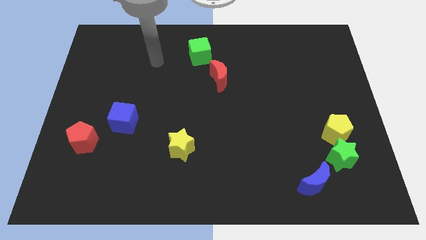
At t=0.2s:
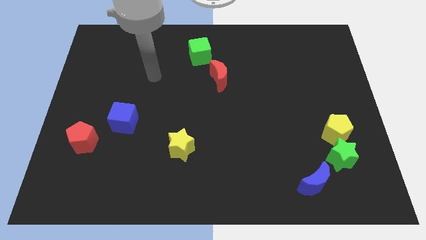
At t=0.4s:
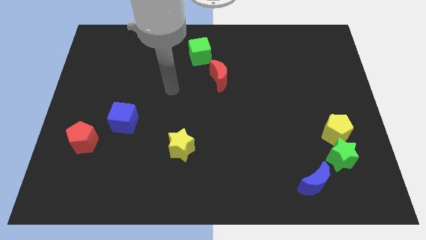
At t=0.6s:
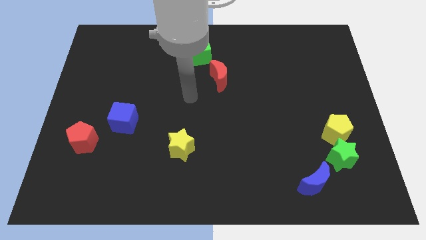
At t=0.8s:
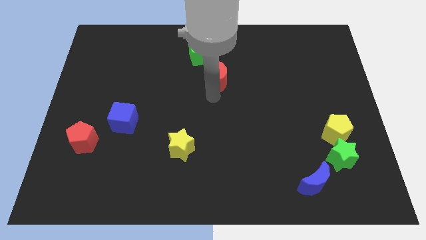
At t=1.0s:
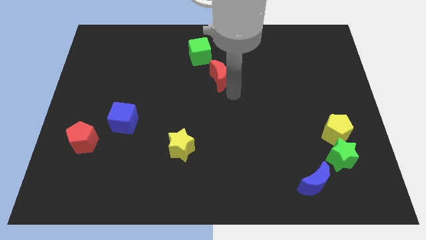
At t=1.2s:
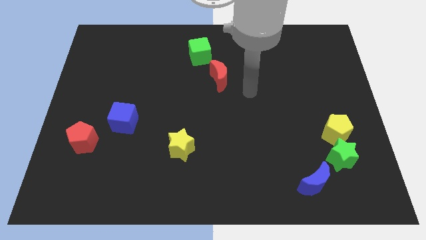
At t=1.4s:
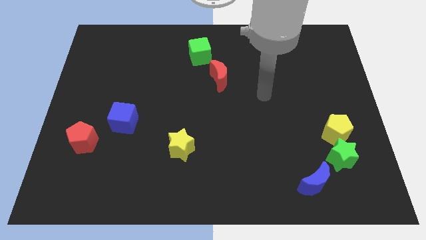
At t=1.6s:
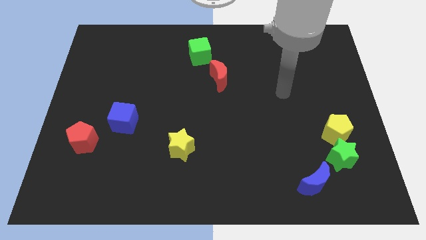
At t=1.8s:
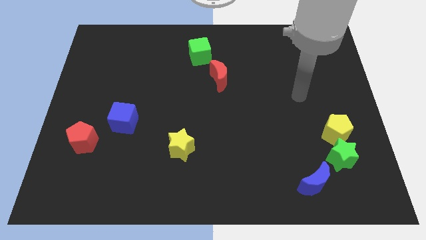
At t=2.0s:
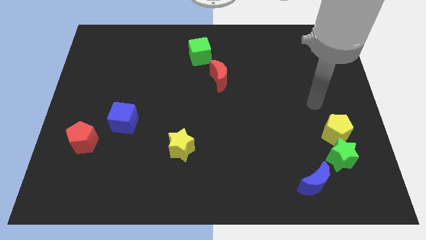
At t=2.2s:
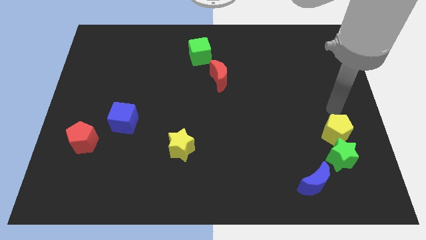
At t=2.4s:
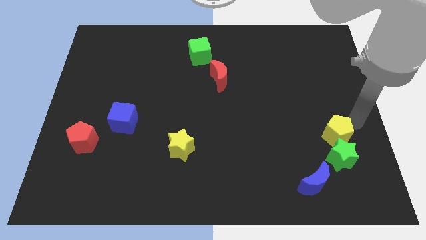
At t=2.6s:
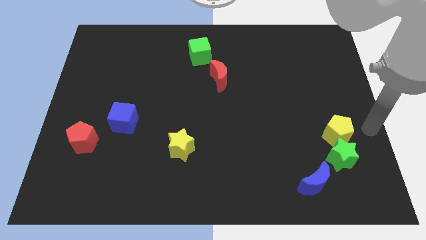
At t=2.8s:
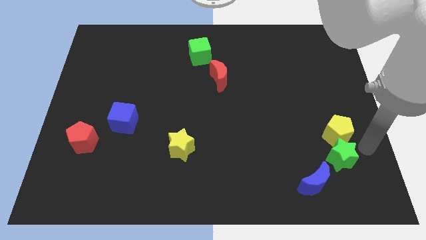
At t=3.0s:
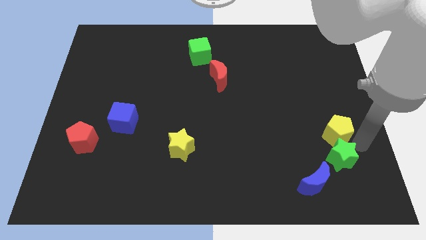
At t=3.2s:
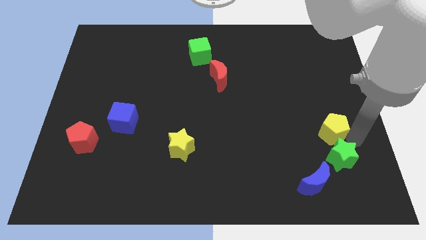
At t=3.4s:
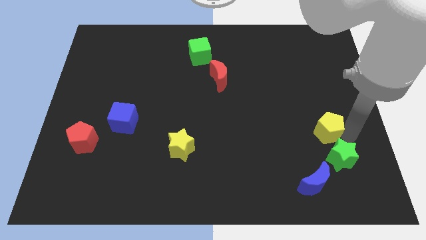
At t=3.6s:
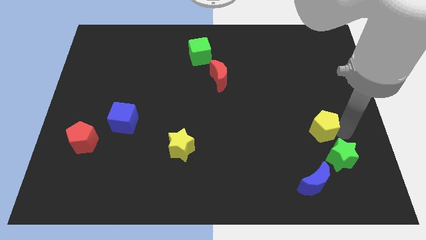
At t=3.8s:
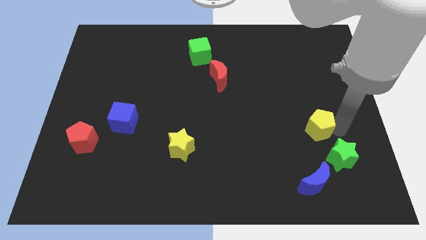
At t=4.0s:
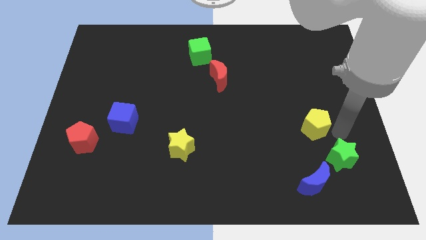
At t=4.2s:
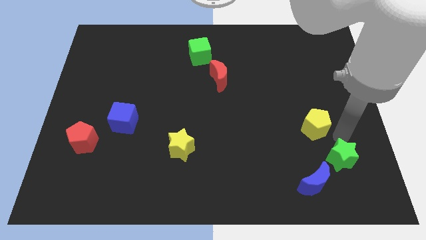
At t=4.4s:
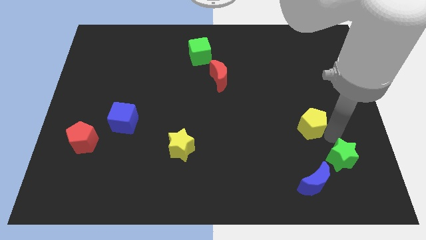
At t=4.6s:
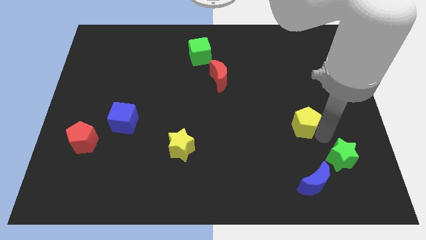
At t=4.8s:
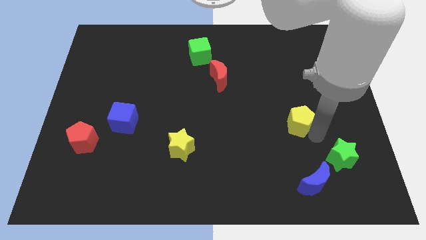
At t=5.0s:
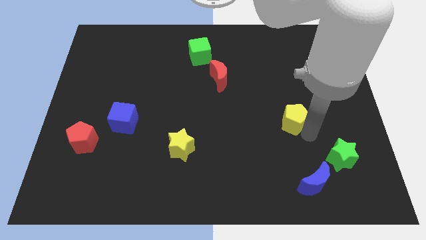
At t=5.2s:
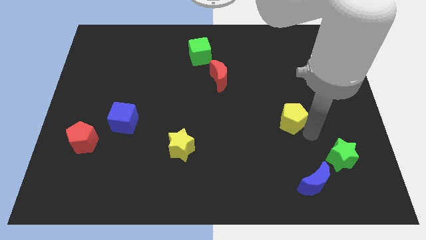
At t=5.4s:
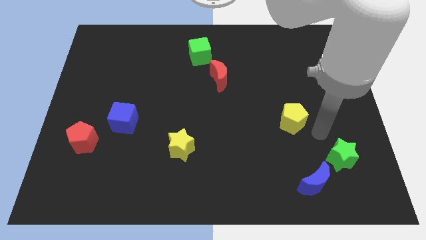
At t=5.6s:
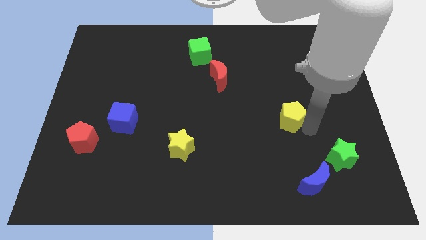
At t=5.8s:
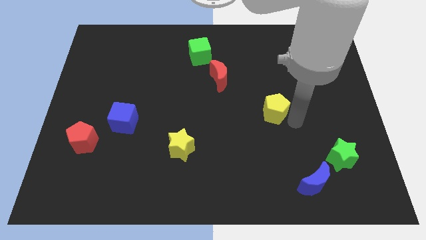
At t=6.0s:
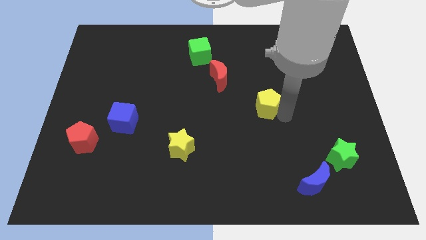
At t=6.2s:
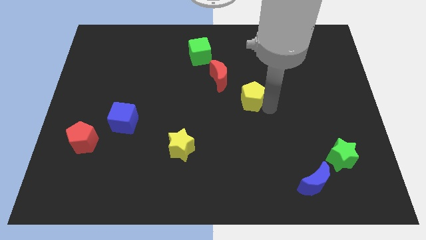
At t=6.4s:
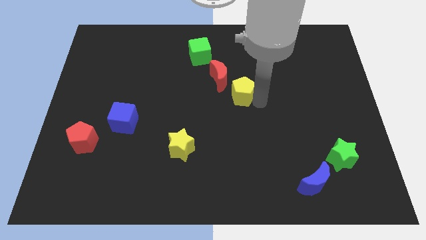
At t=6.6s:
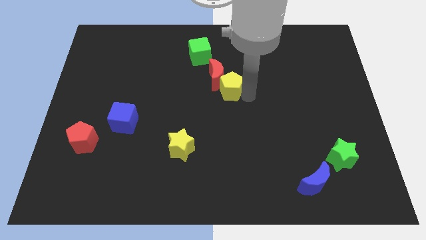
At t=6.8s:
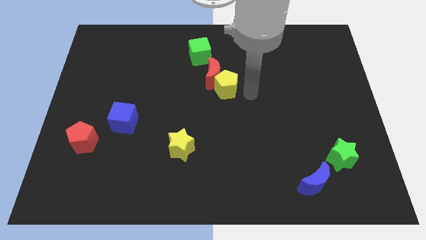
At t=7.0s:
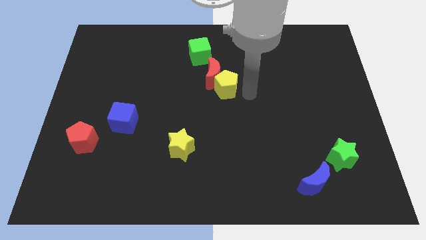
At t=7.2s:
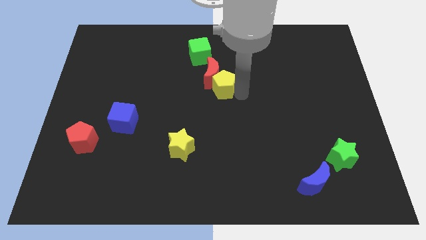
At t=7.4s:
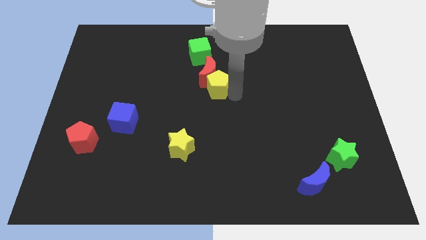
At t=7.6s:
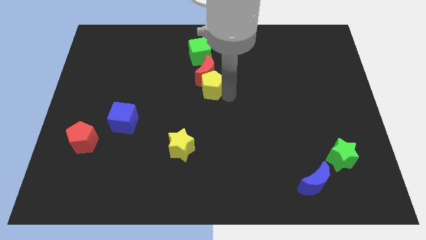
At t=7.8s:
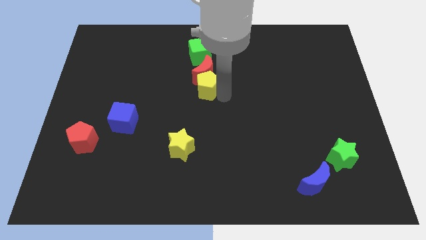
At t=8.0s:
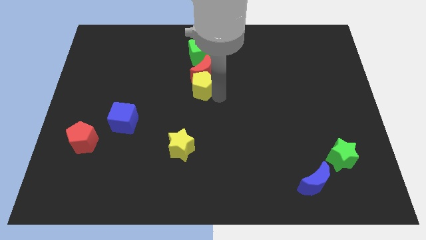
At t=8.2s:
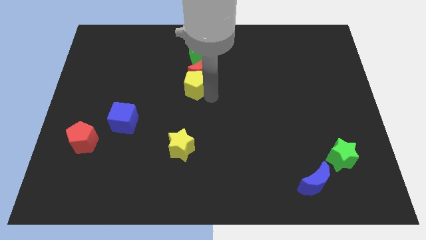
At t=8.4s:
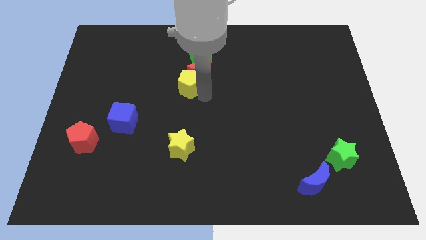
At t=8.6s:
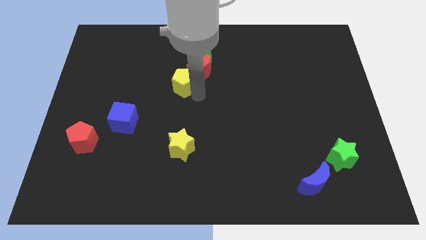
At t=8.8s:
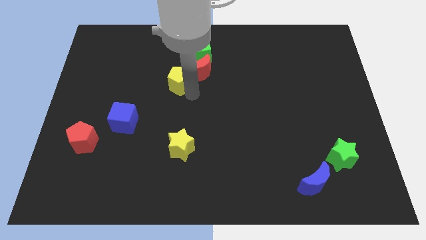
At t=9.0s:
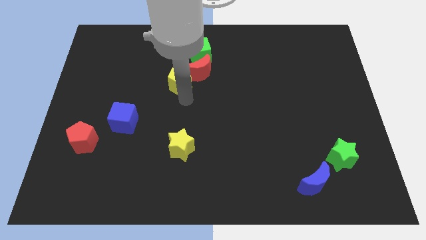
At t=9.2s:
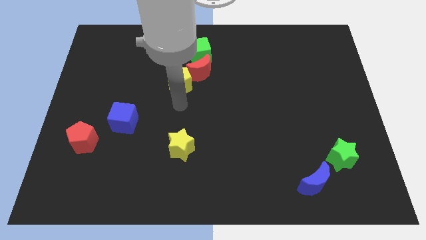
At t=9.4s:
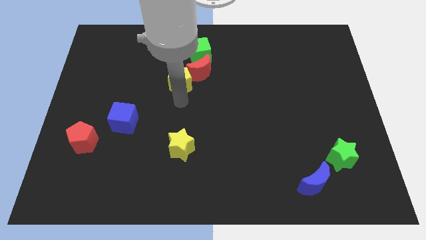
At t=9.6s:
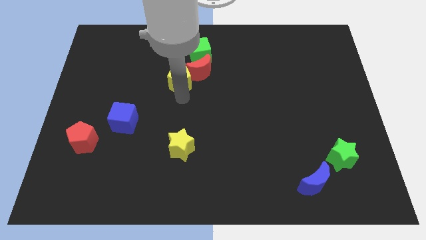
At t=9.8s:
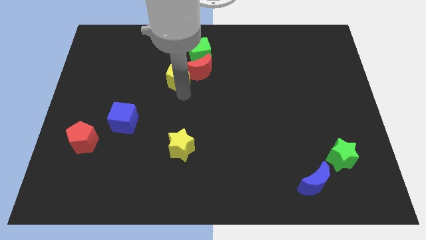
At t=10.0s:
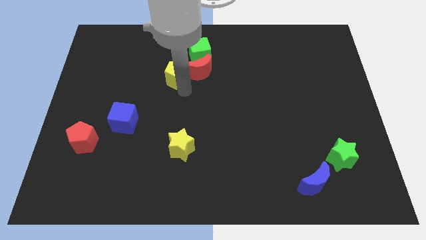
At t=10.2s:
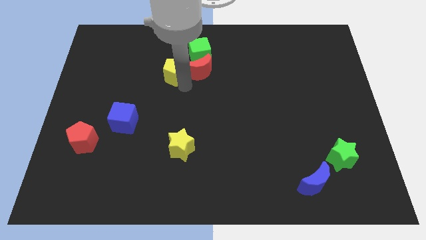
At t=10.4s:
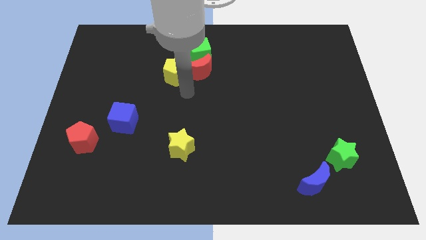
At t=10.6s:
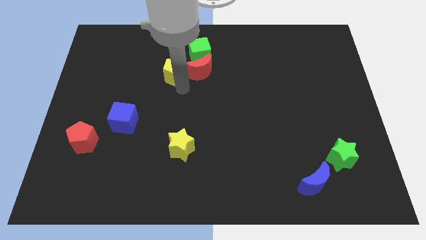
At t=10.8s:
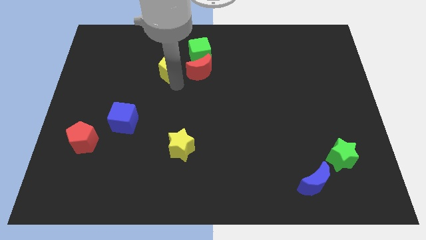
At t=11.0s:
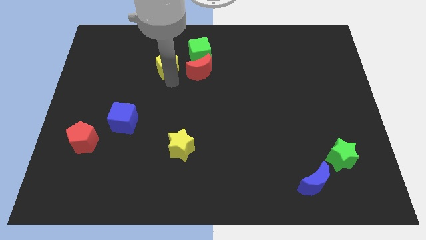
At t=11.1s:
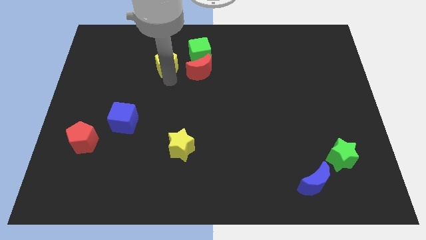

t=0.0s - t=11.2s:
slide the yellow pentagon just left of the green cube

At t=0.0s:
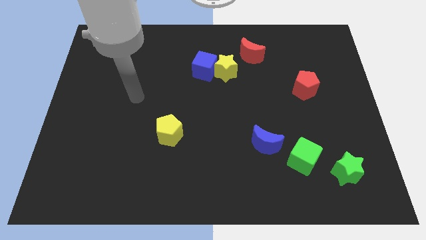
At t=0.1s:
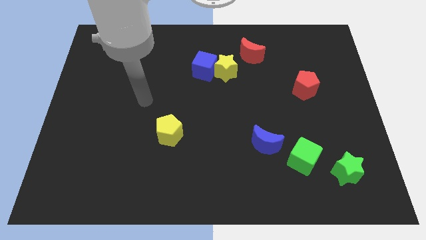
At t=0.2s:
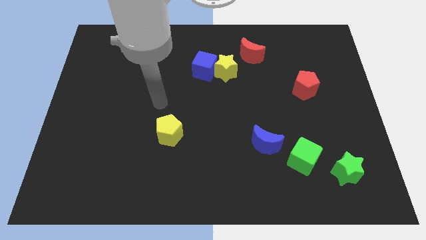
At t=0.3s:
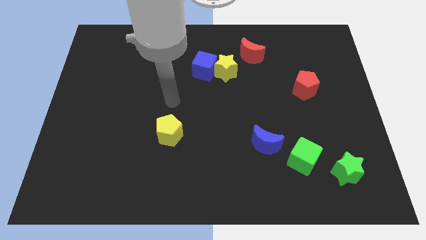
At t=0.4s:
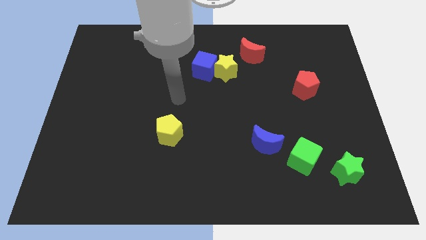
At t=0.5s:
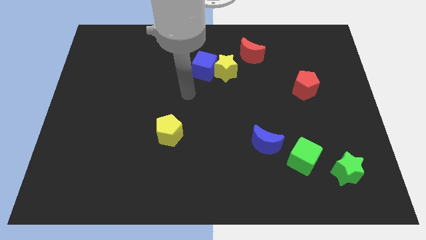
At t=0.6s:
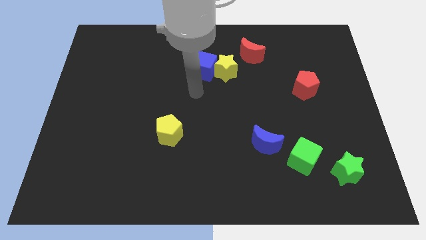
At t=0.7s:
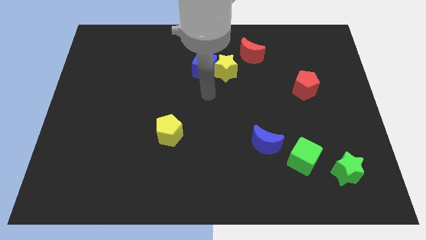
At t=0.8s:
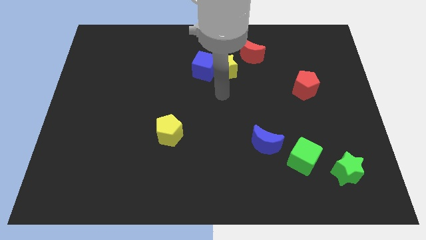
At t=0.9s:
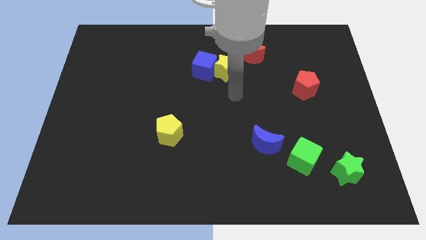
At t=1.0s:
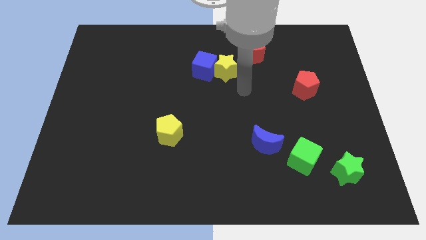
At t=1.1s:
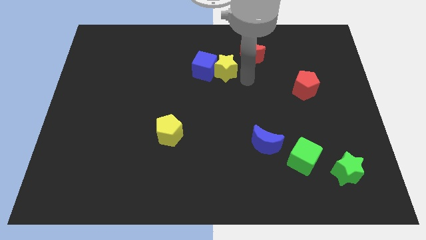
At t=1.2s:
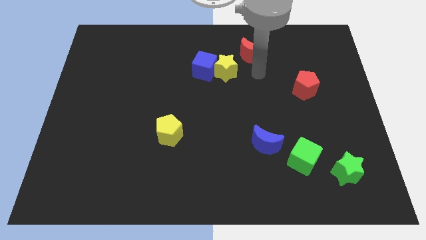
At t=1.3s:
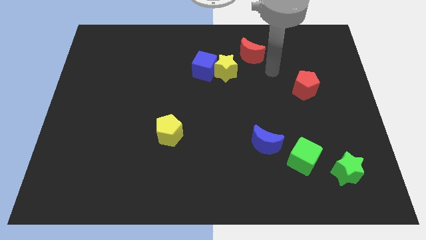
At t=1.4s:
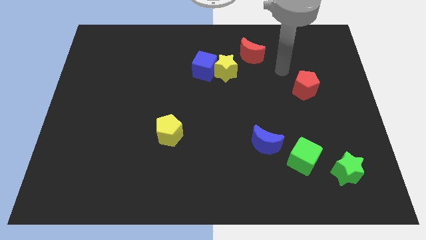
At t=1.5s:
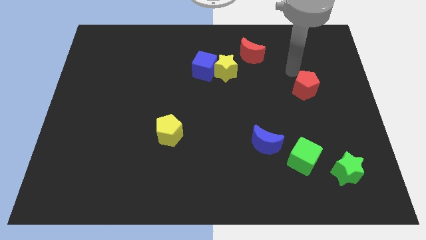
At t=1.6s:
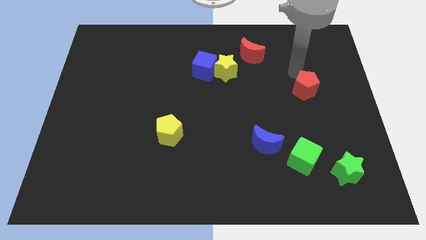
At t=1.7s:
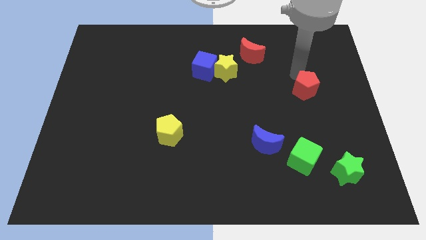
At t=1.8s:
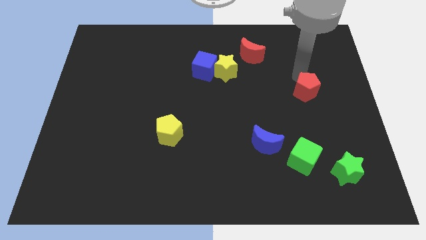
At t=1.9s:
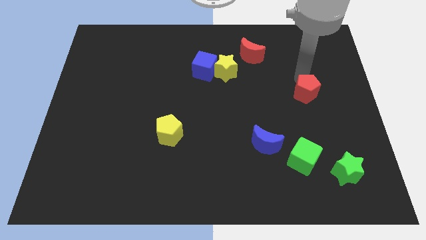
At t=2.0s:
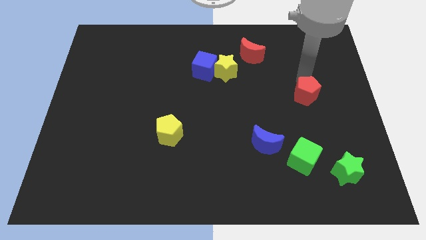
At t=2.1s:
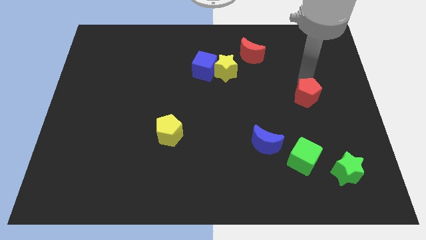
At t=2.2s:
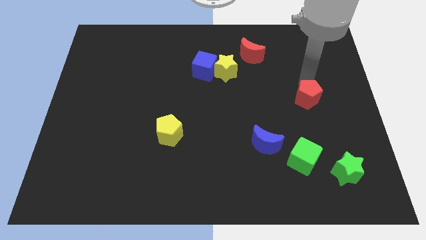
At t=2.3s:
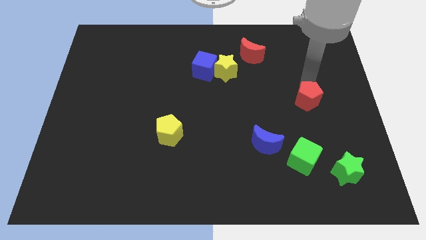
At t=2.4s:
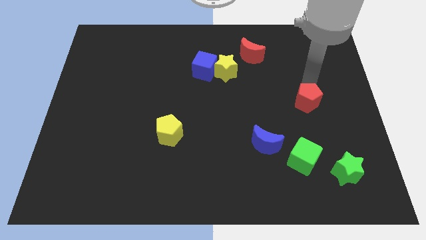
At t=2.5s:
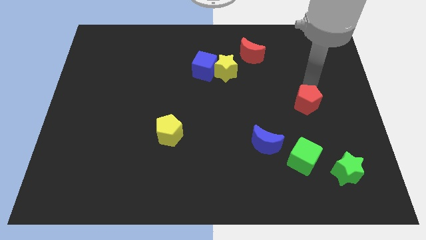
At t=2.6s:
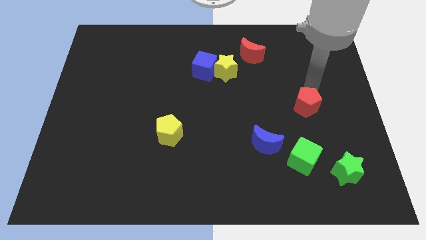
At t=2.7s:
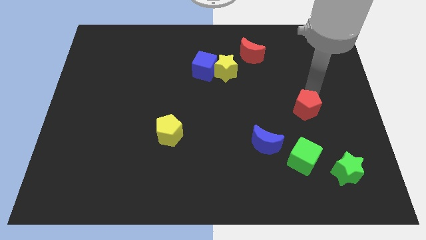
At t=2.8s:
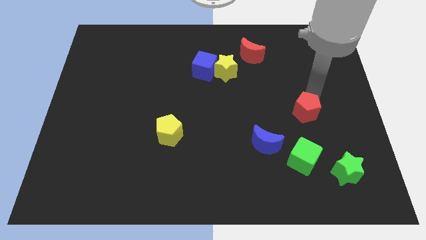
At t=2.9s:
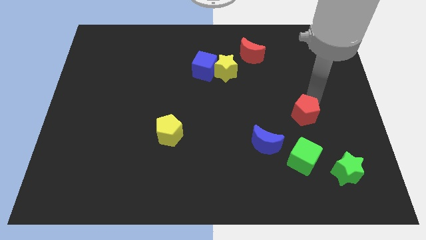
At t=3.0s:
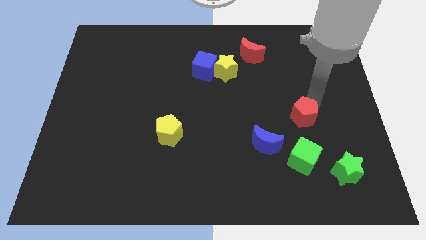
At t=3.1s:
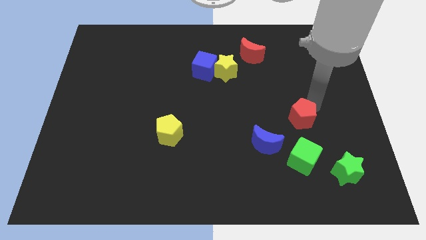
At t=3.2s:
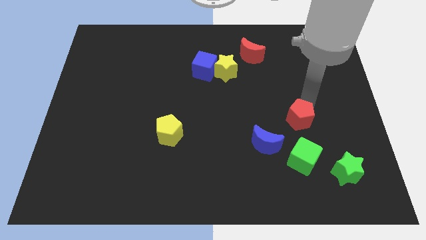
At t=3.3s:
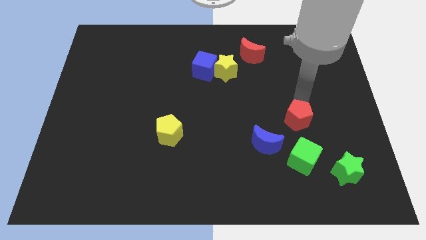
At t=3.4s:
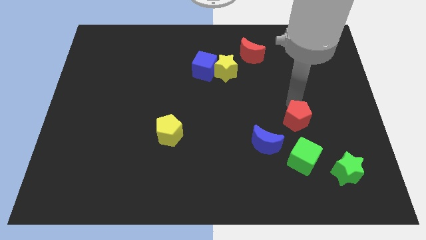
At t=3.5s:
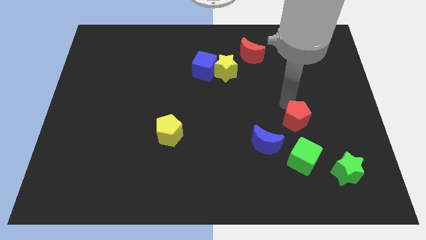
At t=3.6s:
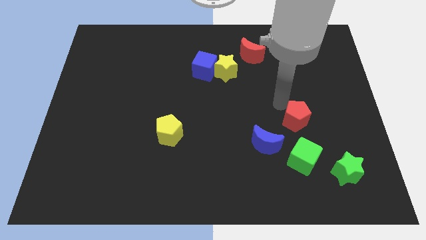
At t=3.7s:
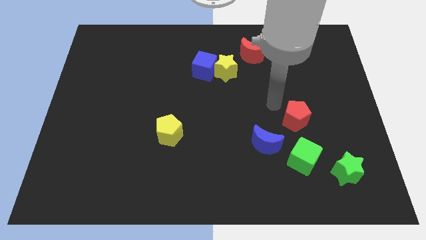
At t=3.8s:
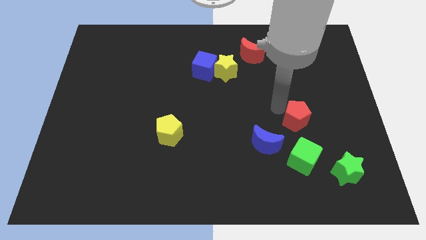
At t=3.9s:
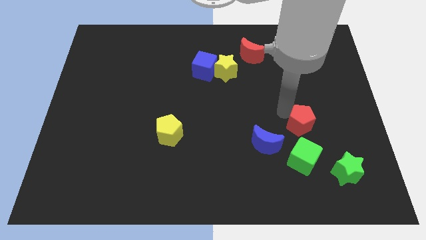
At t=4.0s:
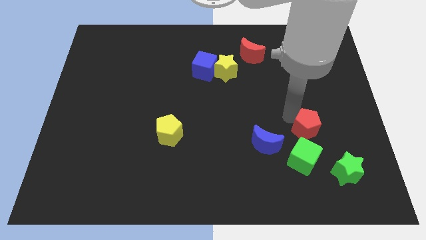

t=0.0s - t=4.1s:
move the red pentagon to the top right of the green cube
